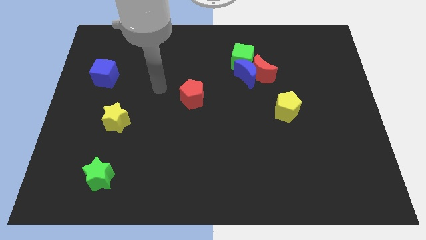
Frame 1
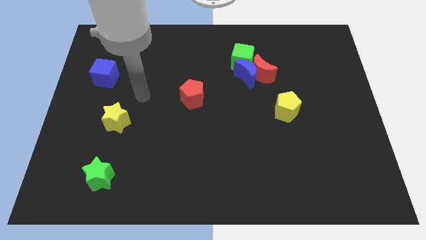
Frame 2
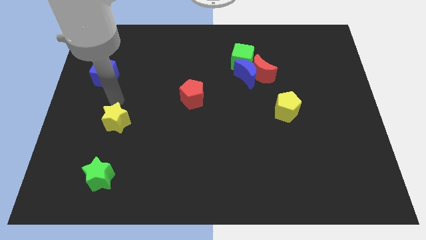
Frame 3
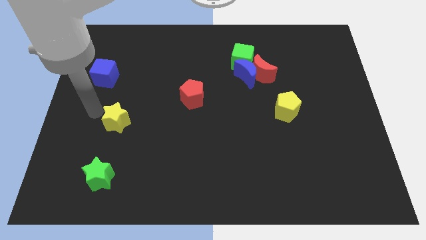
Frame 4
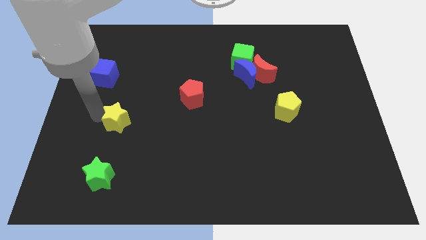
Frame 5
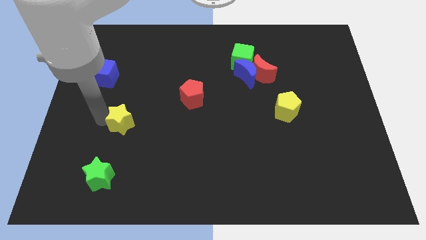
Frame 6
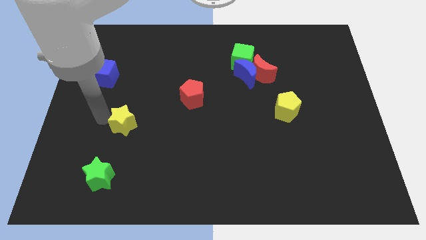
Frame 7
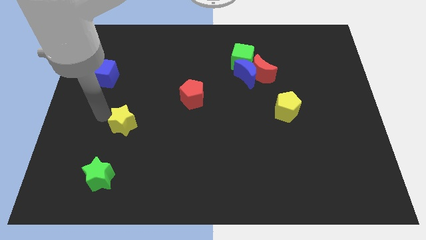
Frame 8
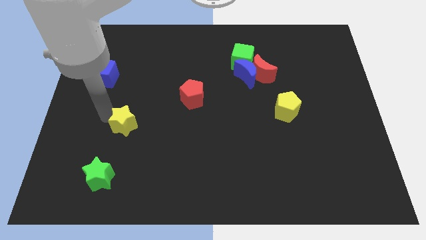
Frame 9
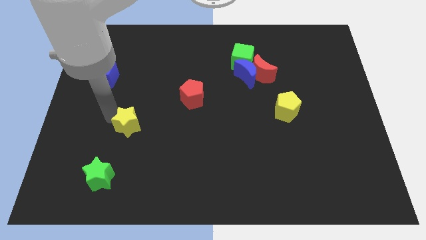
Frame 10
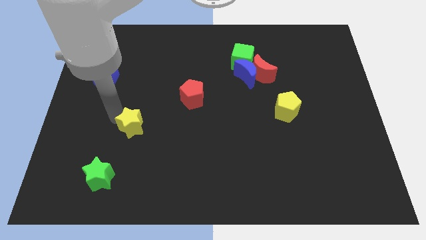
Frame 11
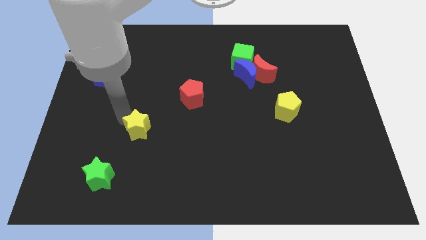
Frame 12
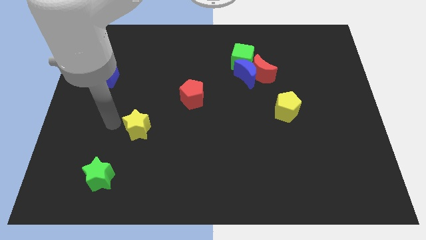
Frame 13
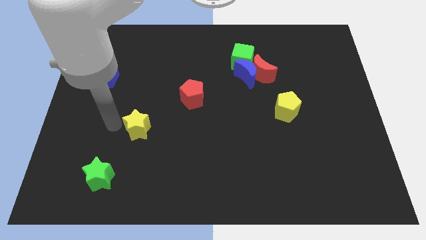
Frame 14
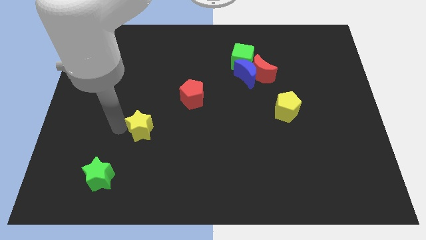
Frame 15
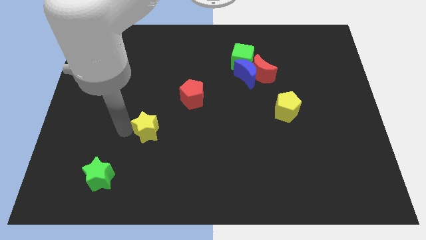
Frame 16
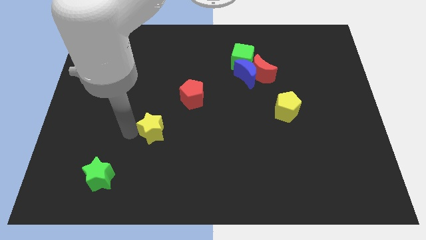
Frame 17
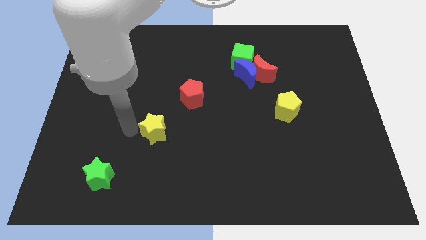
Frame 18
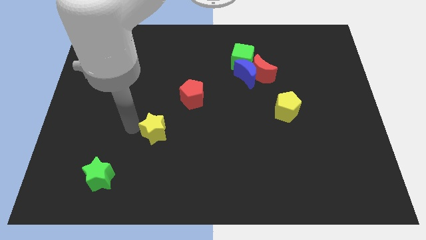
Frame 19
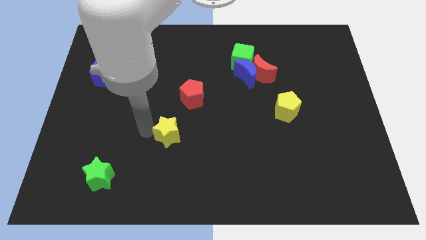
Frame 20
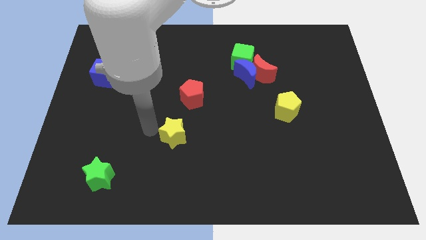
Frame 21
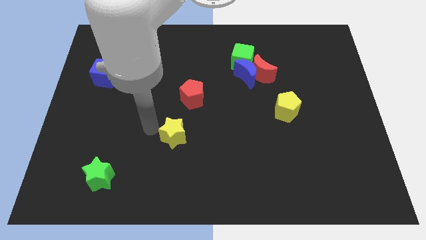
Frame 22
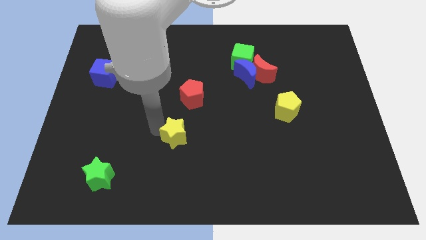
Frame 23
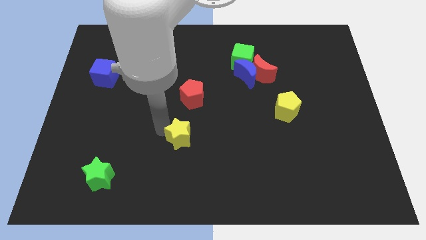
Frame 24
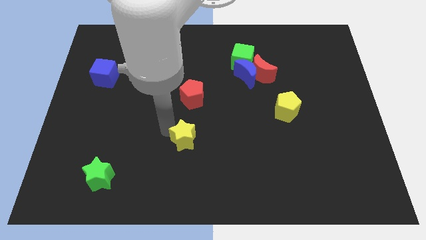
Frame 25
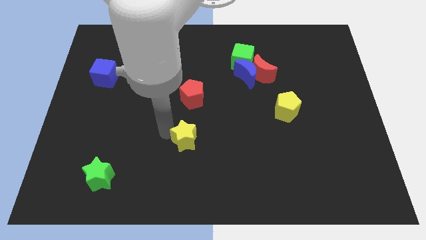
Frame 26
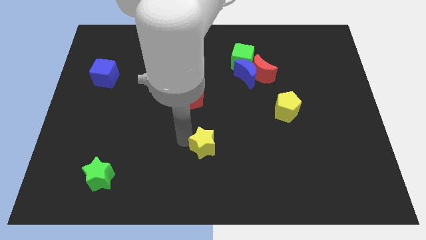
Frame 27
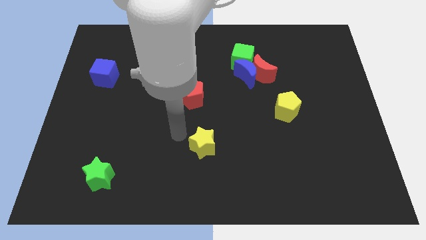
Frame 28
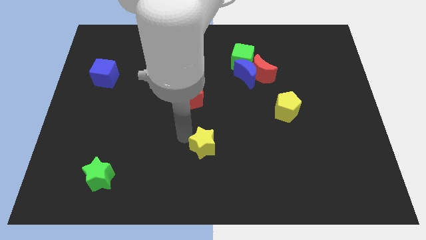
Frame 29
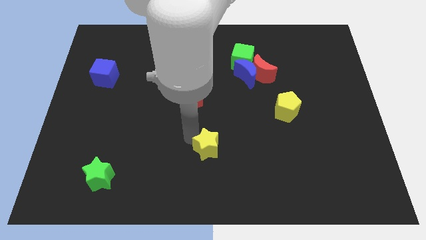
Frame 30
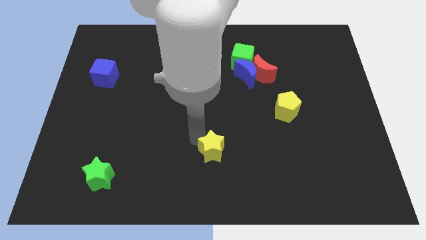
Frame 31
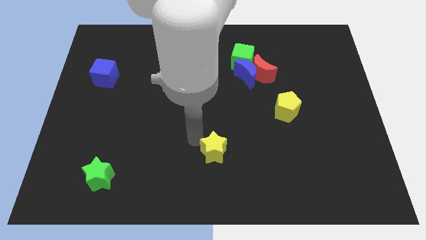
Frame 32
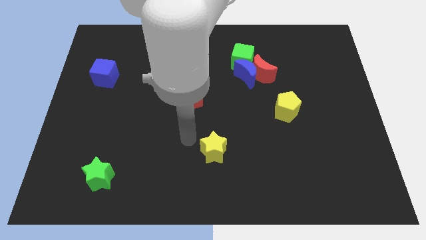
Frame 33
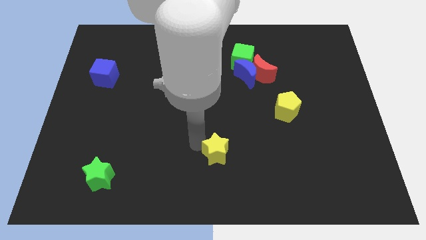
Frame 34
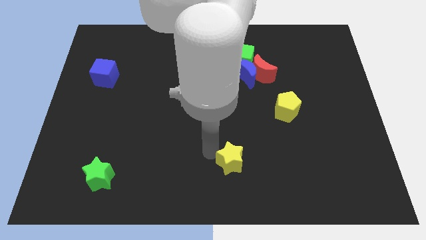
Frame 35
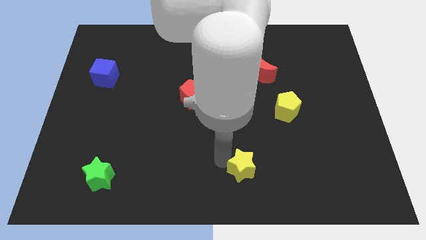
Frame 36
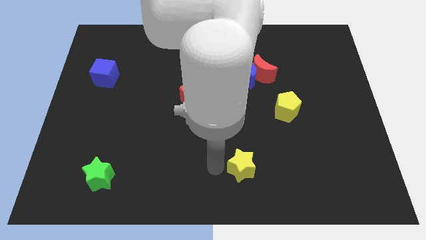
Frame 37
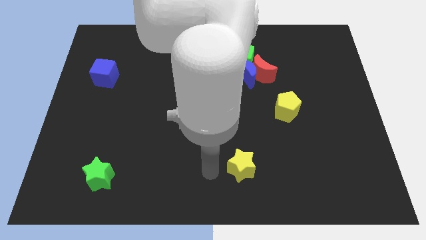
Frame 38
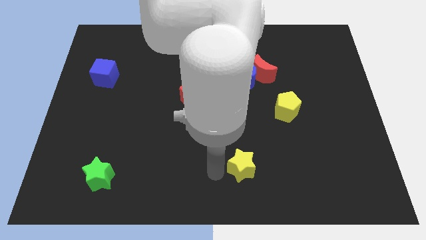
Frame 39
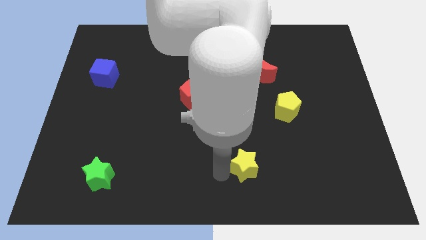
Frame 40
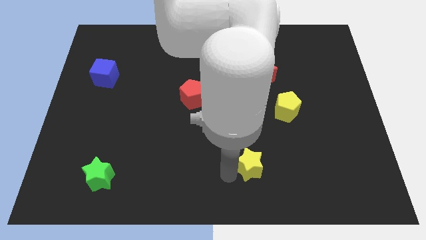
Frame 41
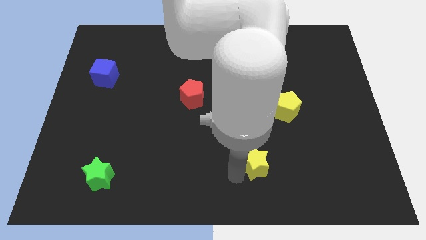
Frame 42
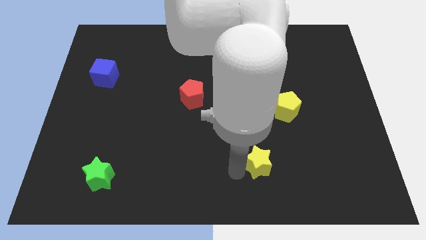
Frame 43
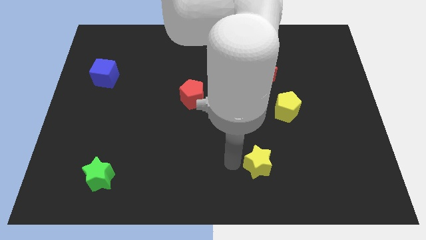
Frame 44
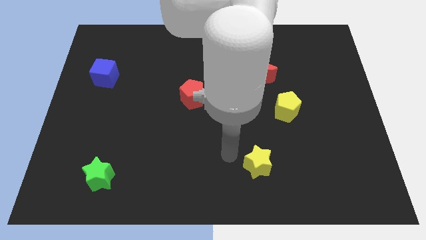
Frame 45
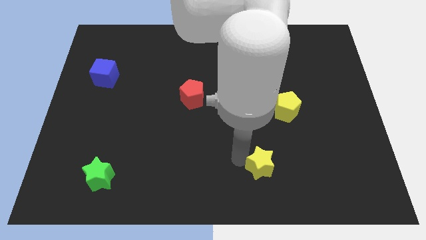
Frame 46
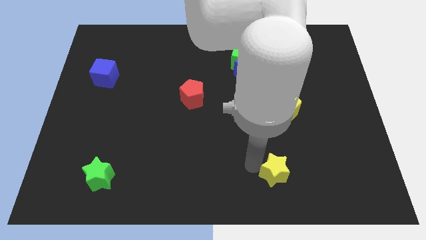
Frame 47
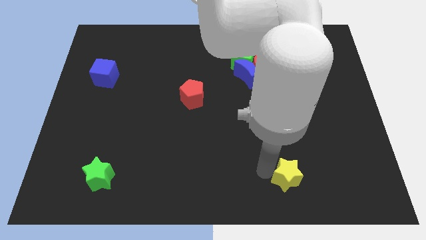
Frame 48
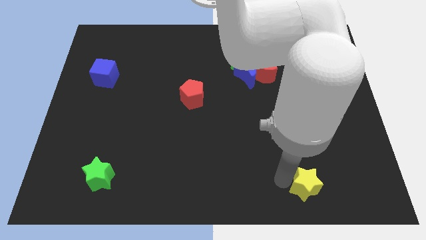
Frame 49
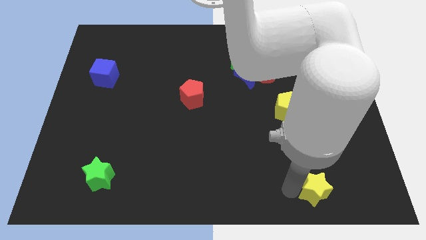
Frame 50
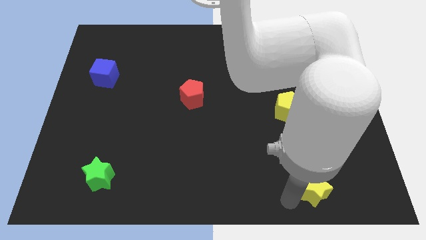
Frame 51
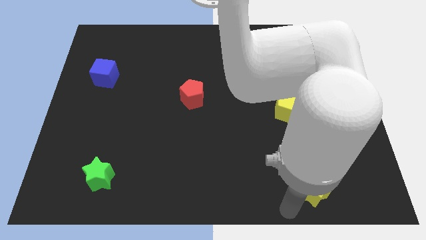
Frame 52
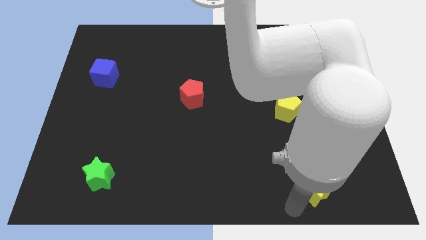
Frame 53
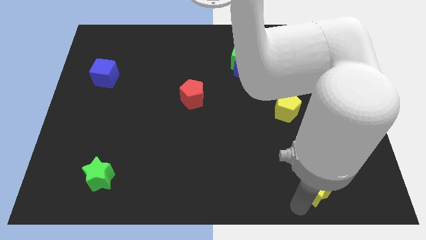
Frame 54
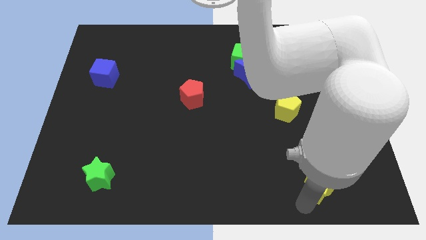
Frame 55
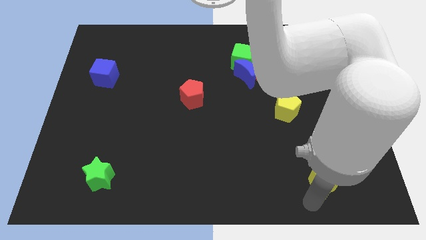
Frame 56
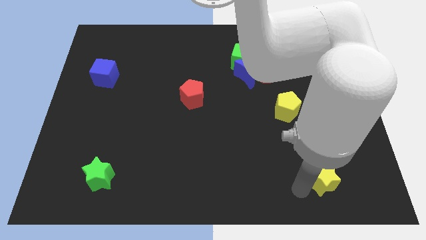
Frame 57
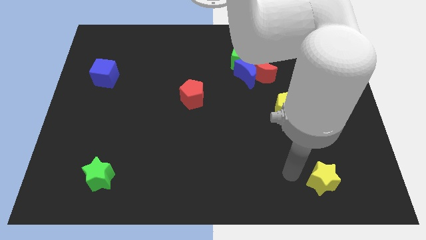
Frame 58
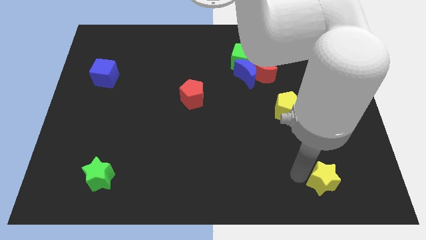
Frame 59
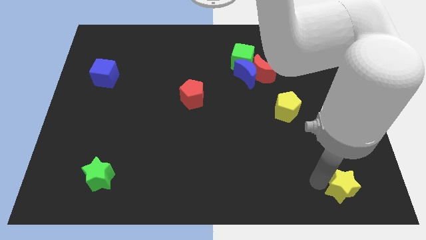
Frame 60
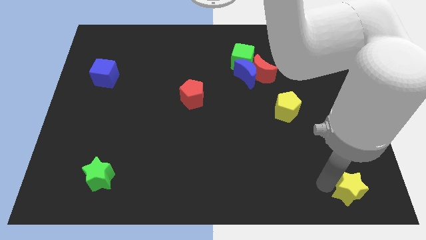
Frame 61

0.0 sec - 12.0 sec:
slide the yellow star to the bottom right corner

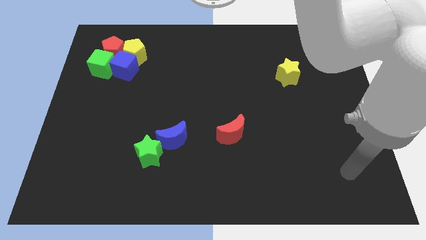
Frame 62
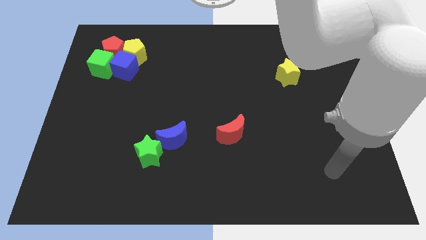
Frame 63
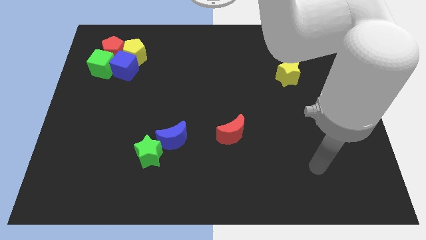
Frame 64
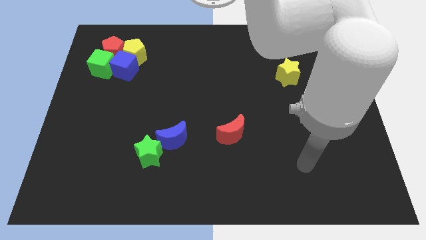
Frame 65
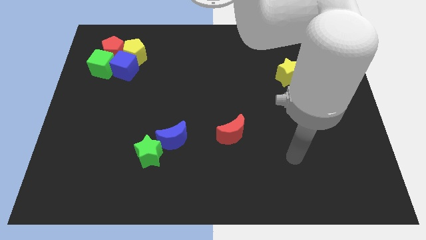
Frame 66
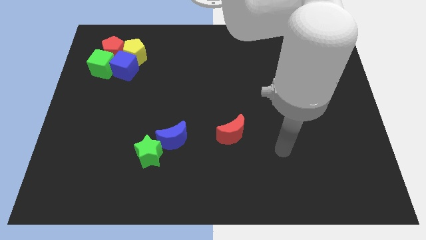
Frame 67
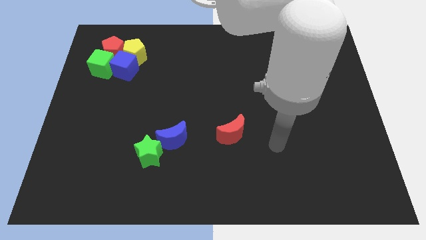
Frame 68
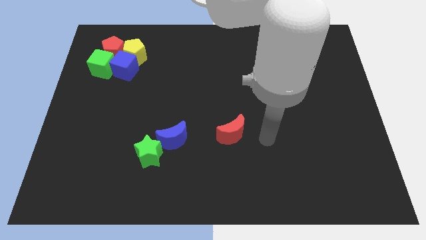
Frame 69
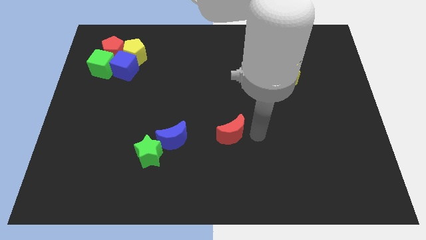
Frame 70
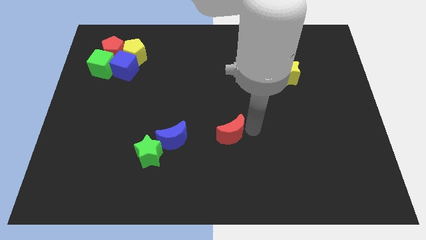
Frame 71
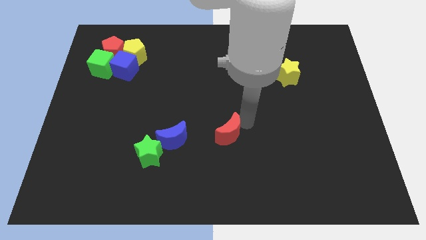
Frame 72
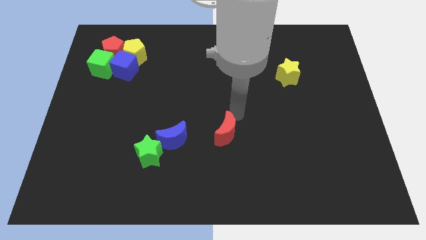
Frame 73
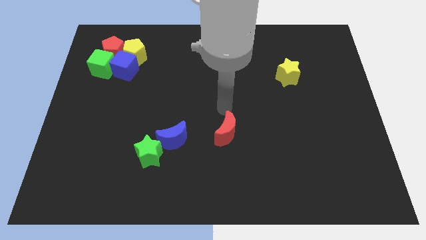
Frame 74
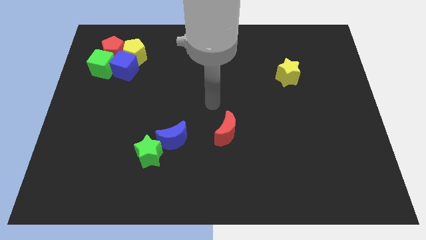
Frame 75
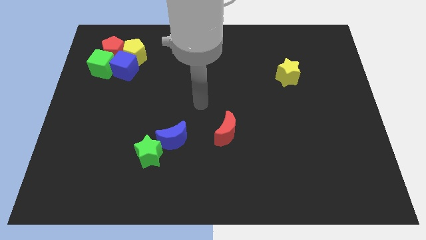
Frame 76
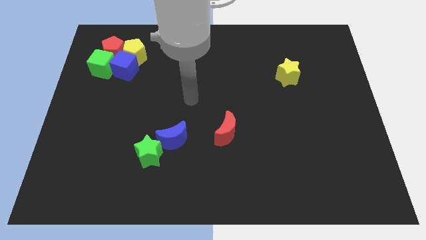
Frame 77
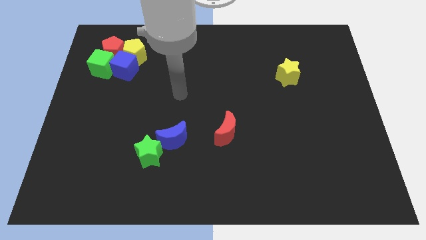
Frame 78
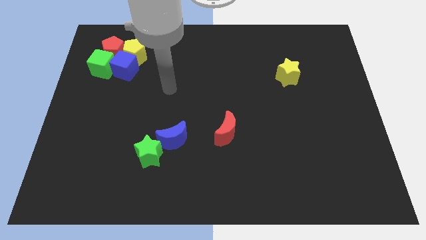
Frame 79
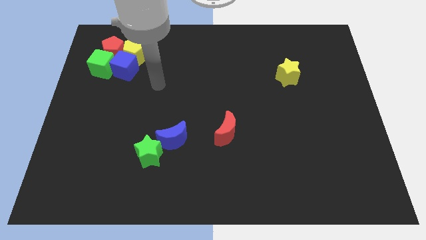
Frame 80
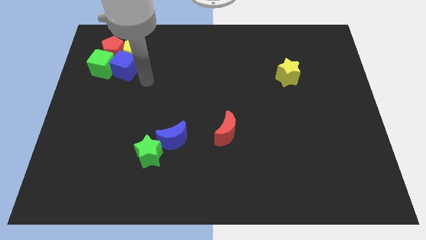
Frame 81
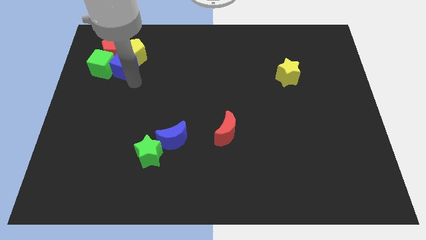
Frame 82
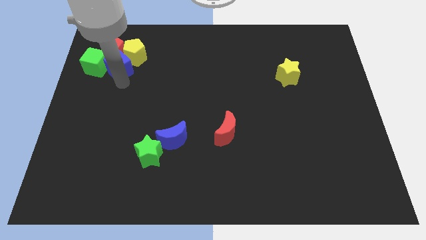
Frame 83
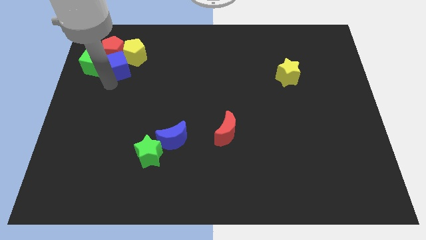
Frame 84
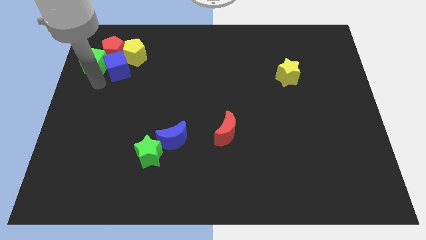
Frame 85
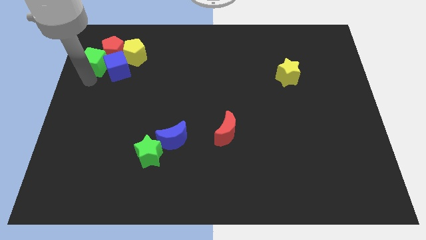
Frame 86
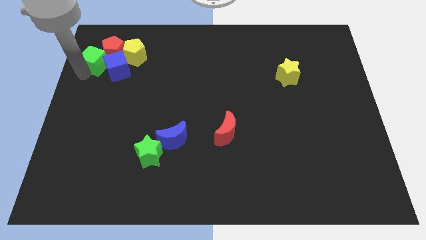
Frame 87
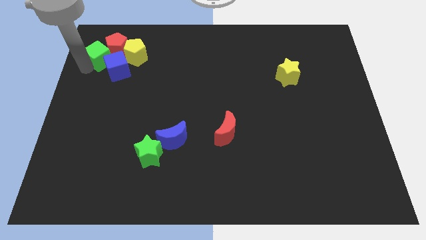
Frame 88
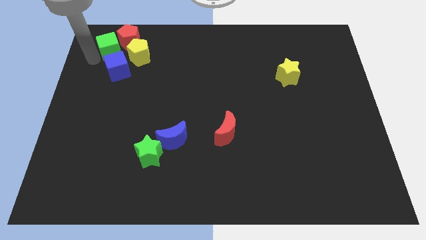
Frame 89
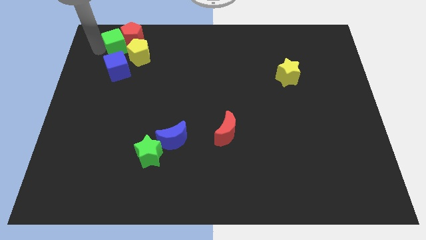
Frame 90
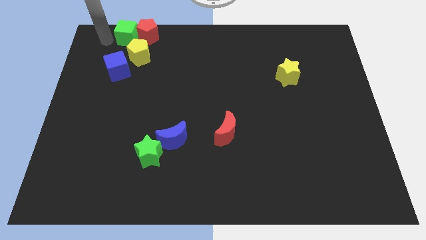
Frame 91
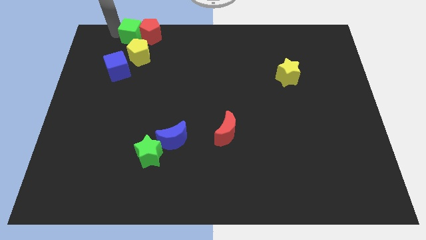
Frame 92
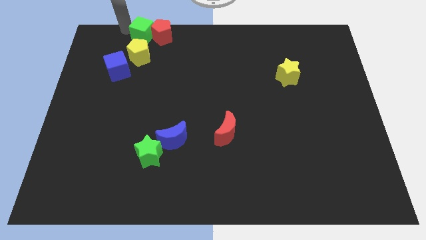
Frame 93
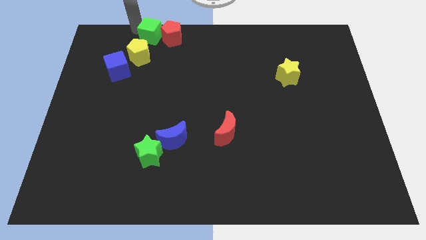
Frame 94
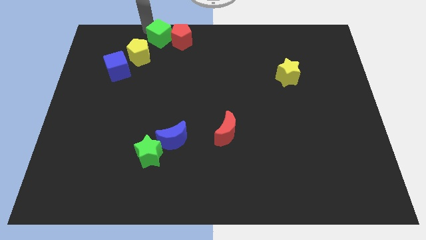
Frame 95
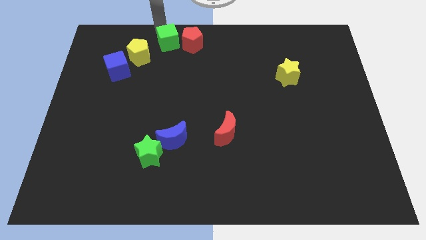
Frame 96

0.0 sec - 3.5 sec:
push the green cube to the top side
